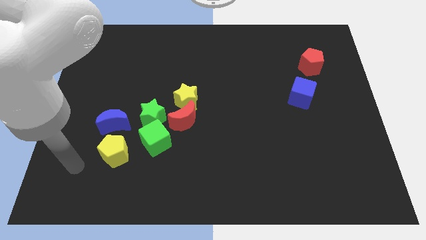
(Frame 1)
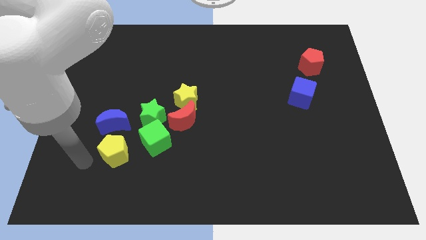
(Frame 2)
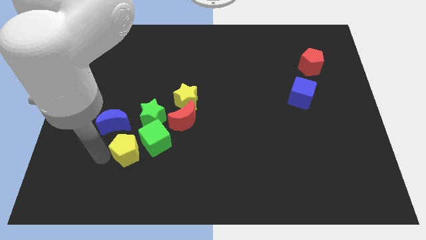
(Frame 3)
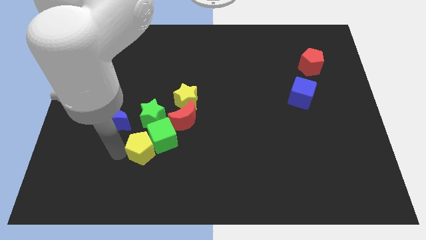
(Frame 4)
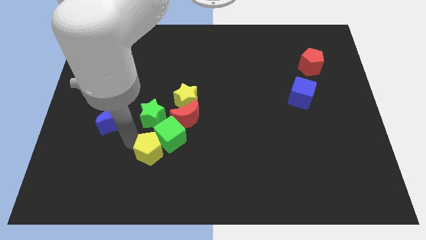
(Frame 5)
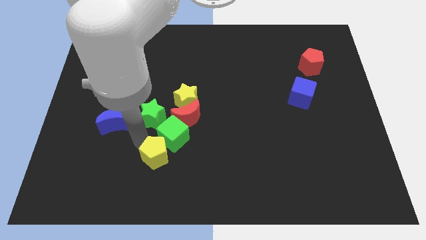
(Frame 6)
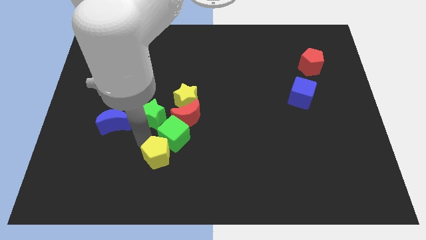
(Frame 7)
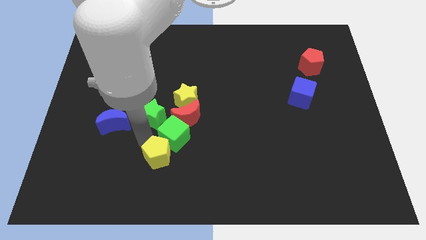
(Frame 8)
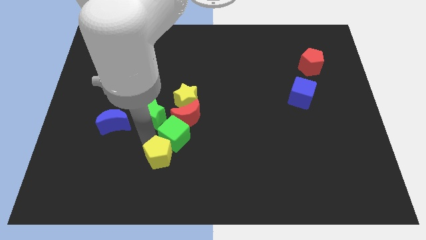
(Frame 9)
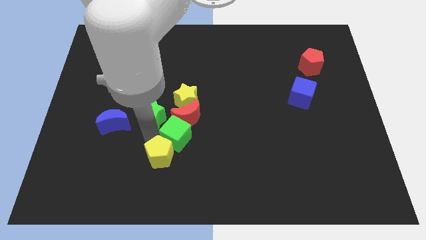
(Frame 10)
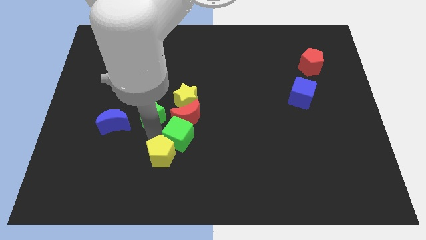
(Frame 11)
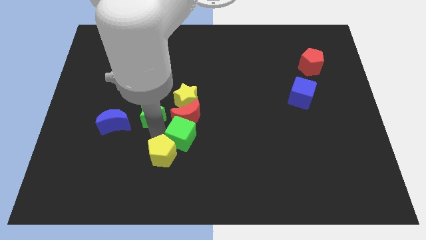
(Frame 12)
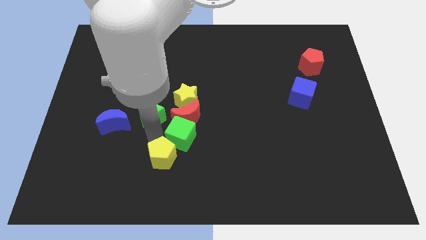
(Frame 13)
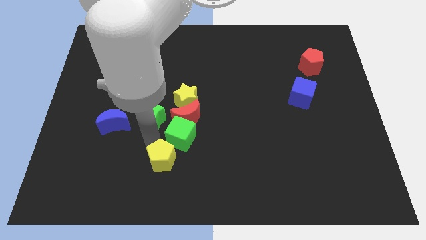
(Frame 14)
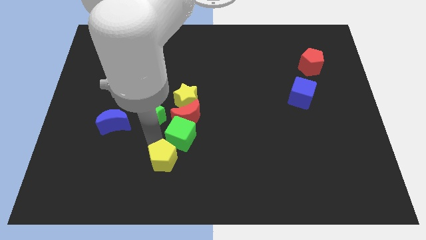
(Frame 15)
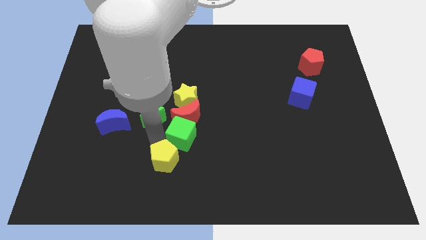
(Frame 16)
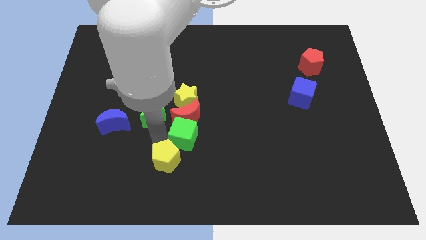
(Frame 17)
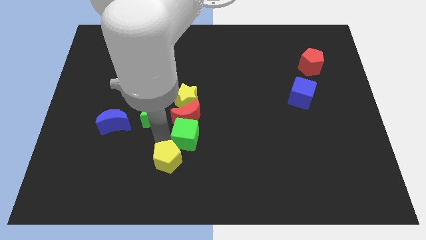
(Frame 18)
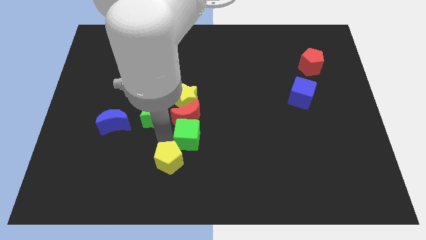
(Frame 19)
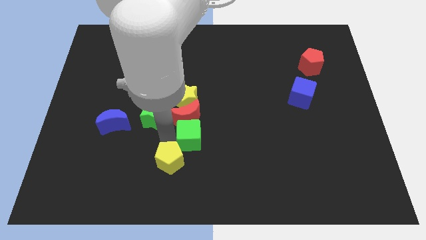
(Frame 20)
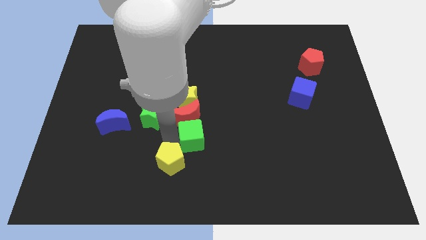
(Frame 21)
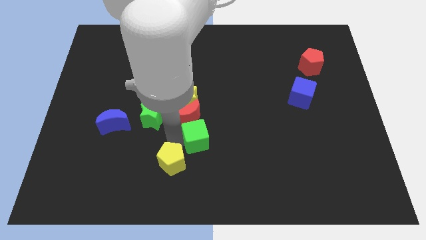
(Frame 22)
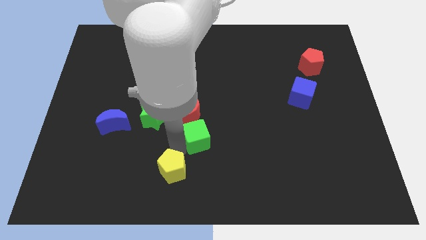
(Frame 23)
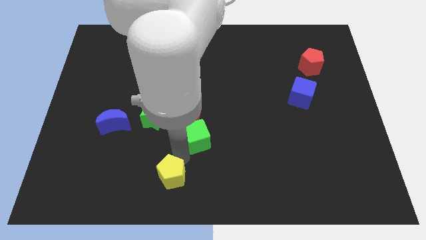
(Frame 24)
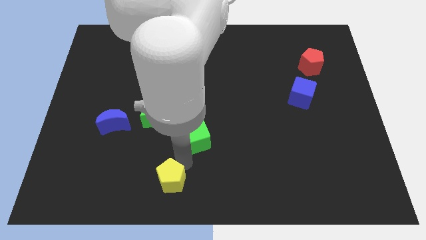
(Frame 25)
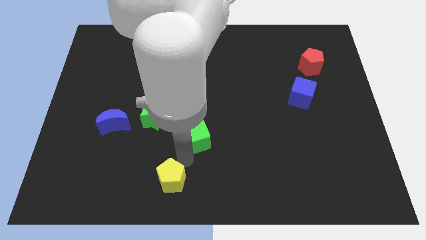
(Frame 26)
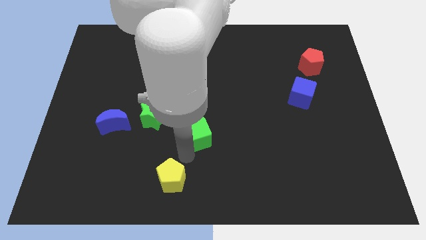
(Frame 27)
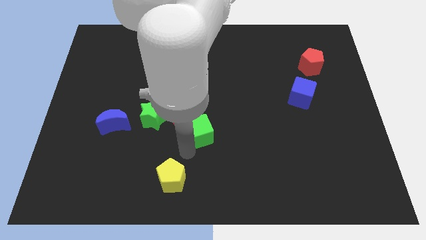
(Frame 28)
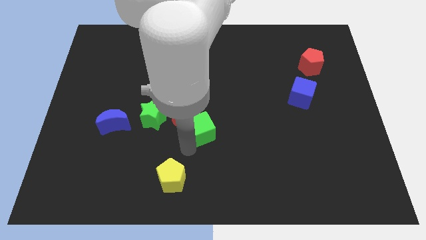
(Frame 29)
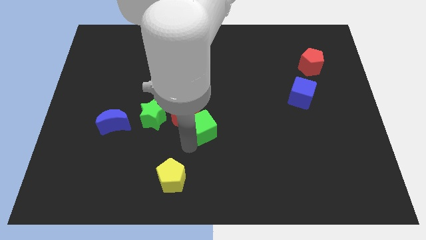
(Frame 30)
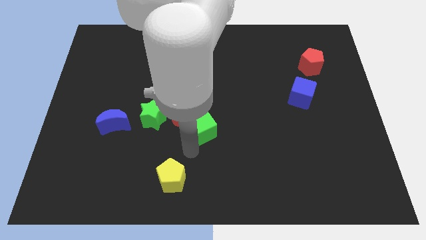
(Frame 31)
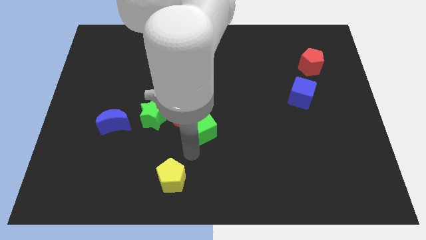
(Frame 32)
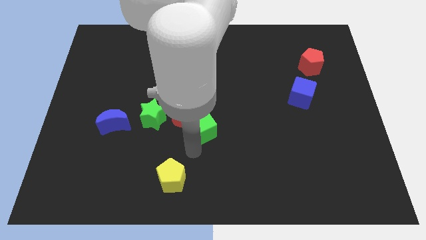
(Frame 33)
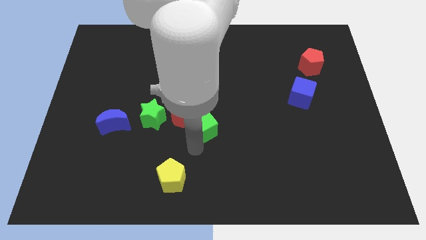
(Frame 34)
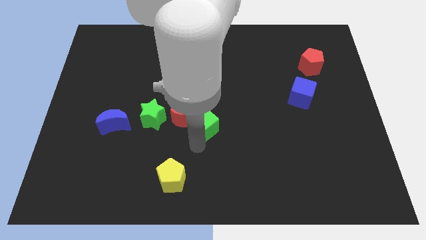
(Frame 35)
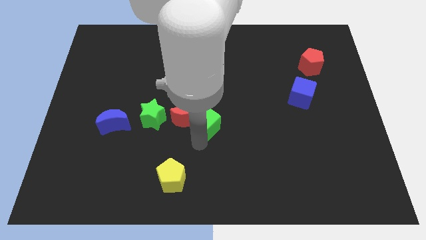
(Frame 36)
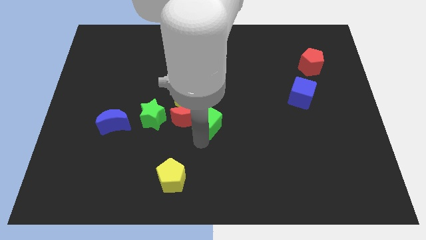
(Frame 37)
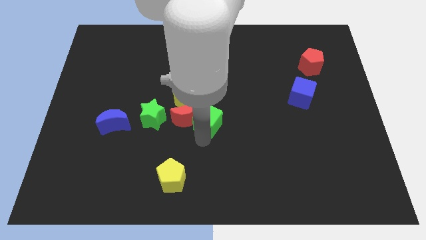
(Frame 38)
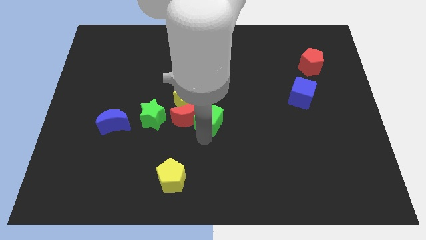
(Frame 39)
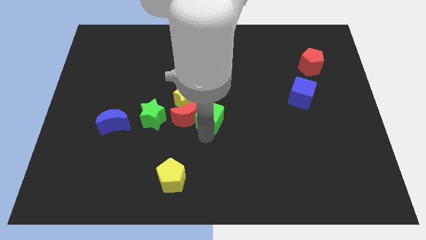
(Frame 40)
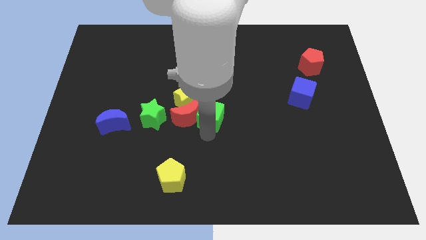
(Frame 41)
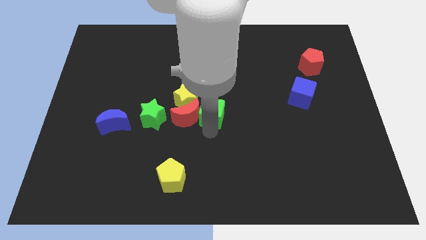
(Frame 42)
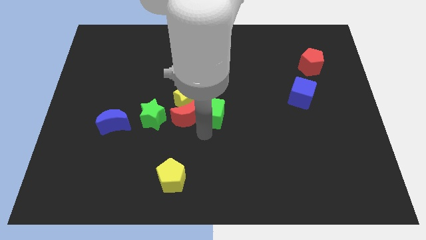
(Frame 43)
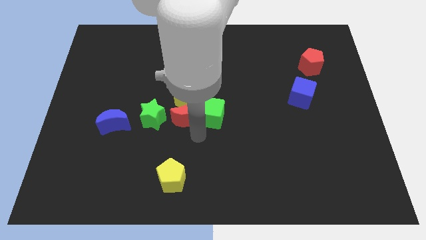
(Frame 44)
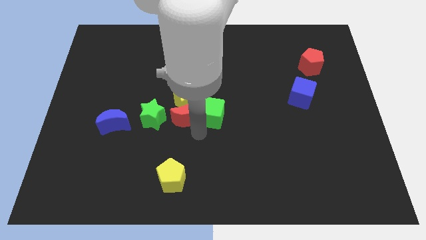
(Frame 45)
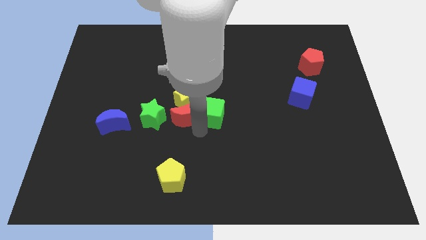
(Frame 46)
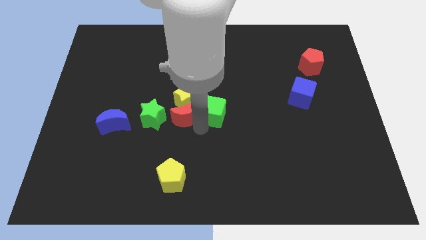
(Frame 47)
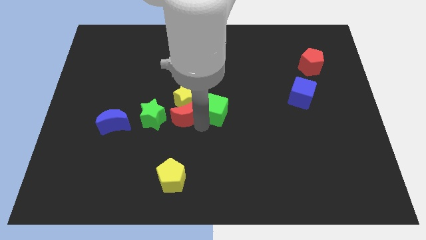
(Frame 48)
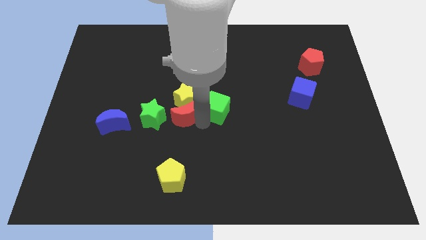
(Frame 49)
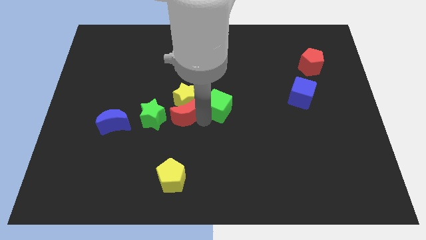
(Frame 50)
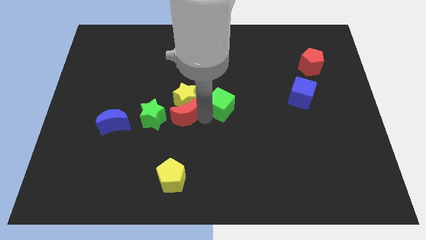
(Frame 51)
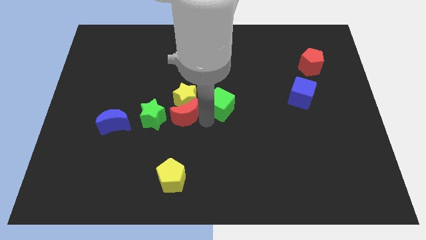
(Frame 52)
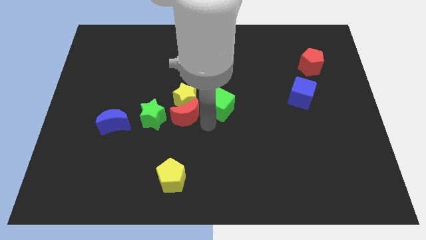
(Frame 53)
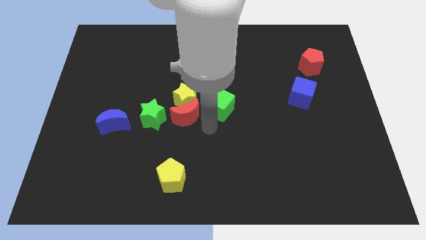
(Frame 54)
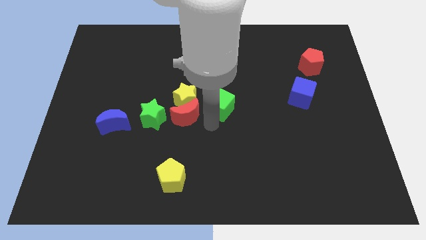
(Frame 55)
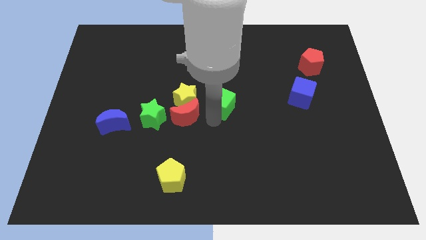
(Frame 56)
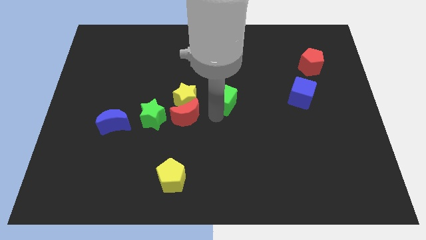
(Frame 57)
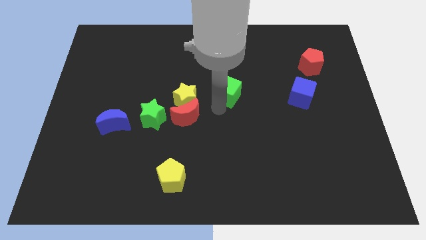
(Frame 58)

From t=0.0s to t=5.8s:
push the green cube up and right

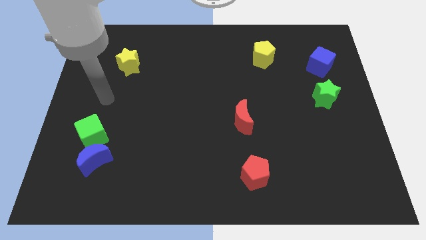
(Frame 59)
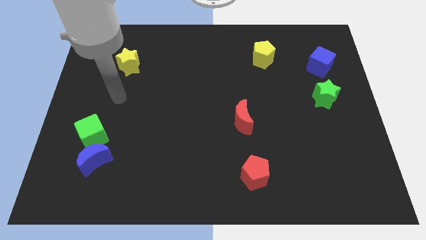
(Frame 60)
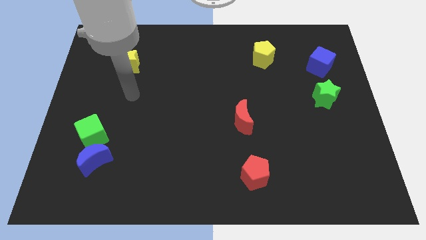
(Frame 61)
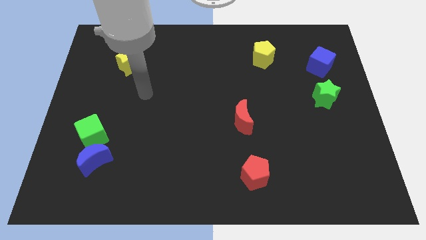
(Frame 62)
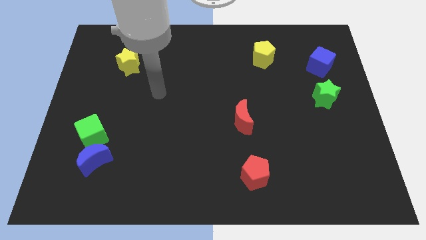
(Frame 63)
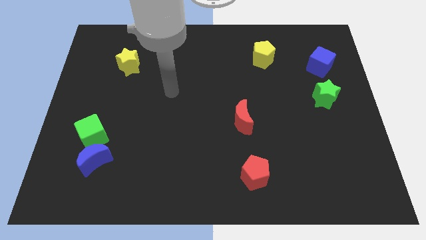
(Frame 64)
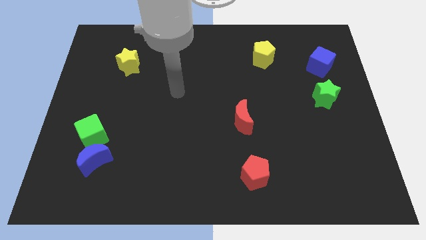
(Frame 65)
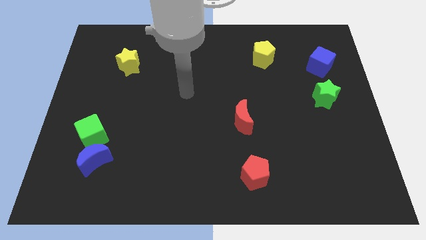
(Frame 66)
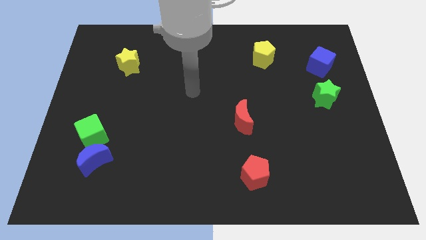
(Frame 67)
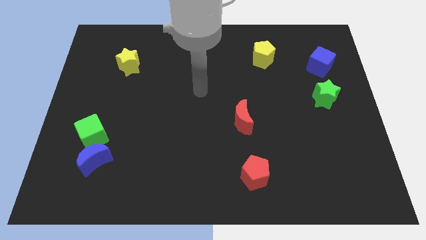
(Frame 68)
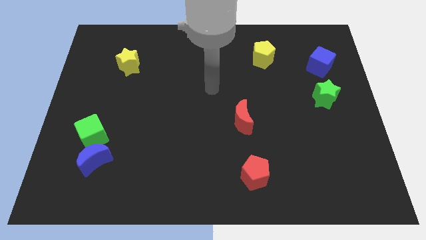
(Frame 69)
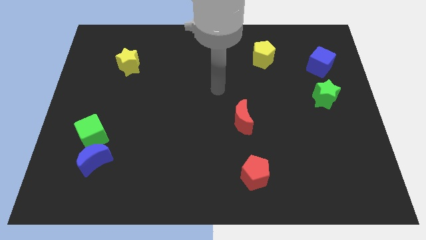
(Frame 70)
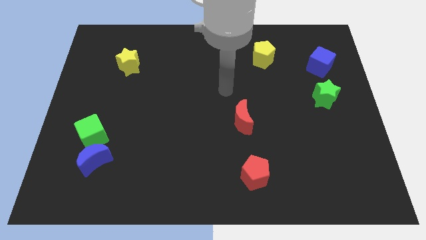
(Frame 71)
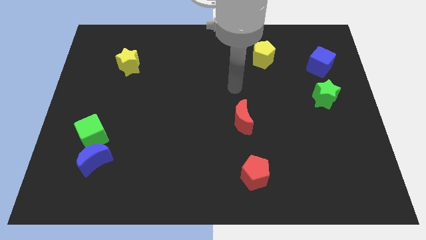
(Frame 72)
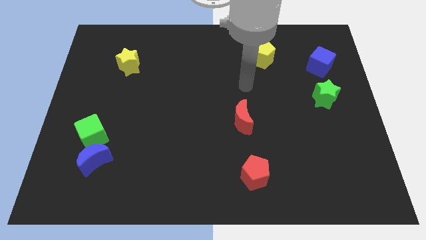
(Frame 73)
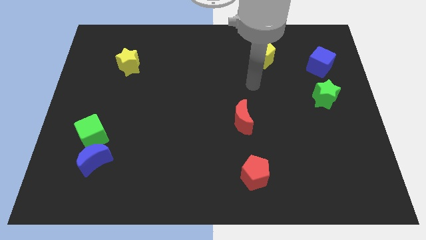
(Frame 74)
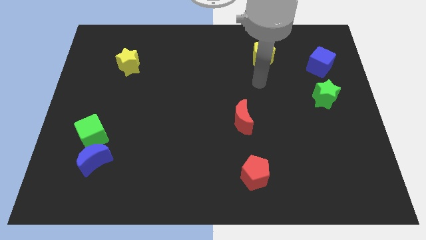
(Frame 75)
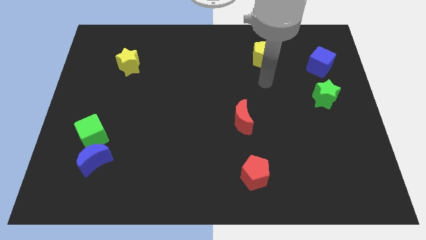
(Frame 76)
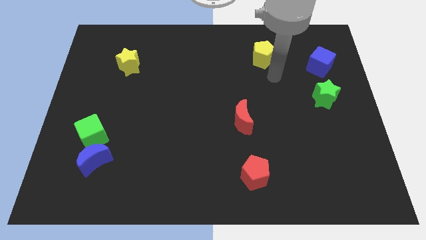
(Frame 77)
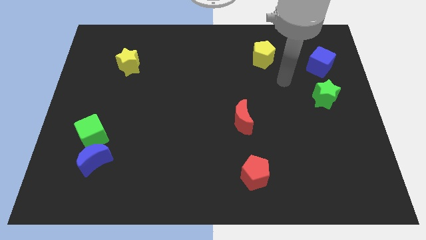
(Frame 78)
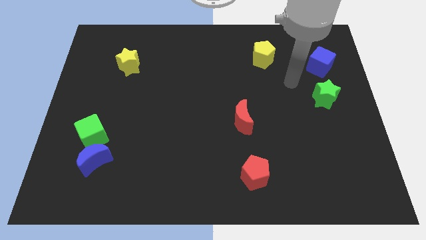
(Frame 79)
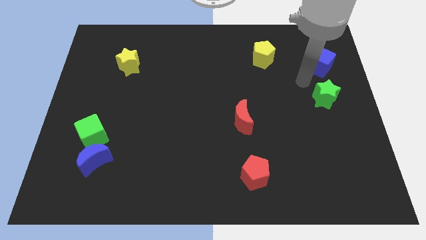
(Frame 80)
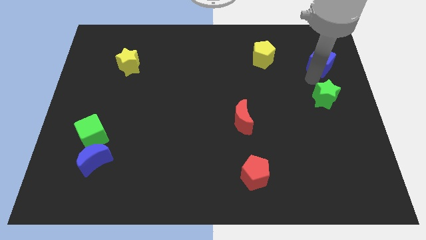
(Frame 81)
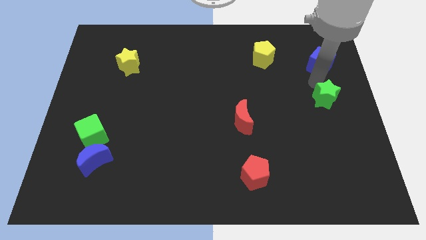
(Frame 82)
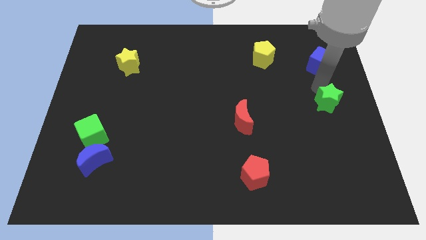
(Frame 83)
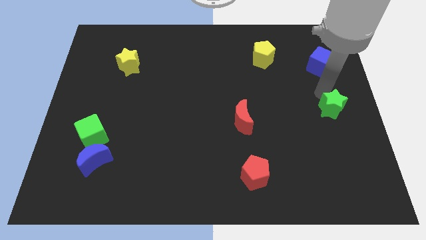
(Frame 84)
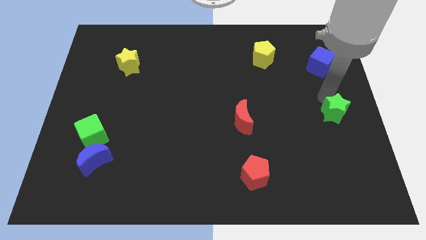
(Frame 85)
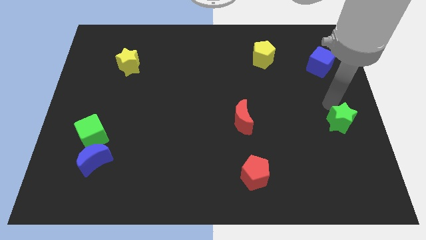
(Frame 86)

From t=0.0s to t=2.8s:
slide the green star slightly down
